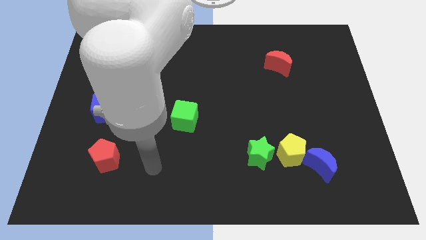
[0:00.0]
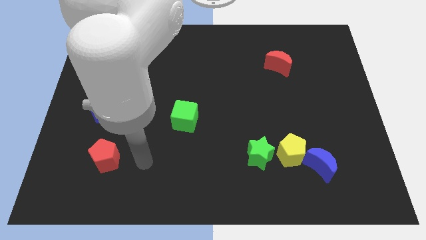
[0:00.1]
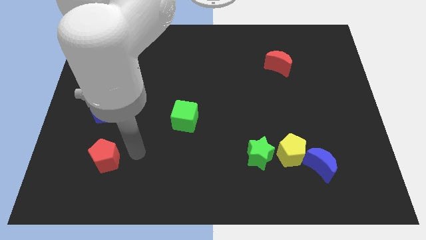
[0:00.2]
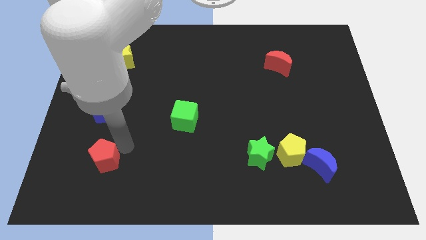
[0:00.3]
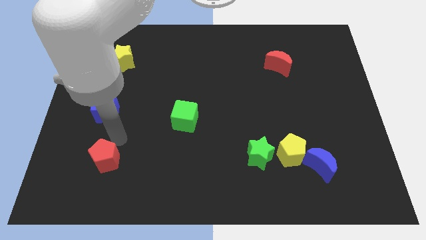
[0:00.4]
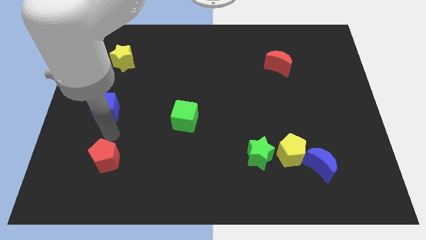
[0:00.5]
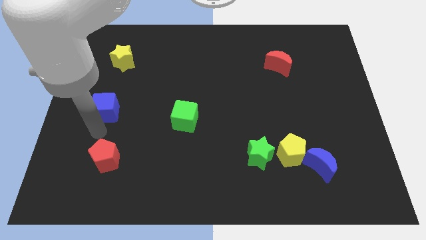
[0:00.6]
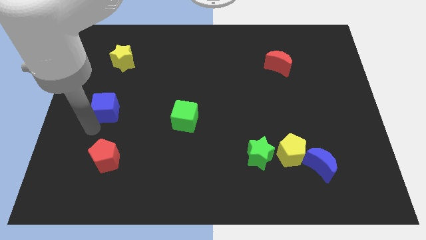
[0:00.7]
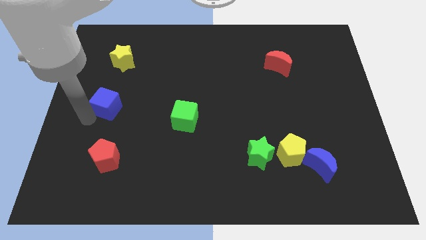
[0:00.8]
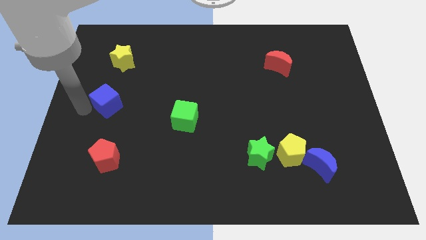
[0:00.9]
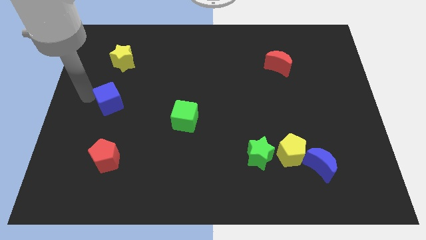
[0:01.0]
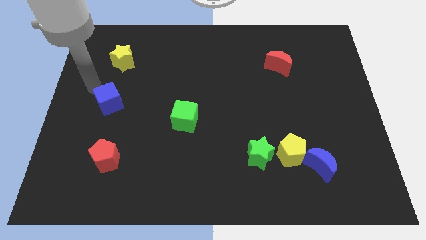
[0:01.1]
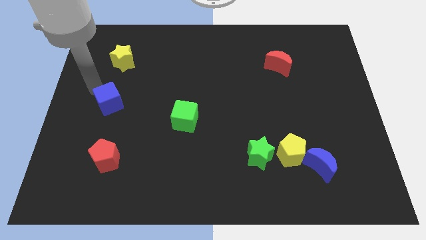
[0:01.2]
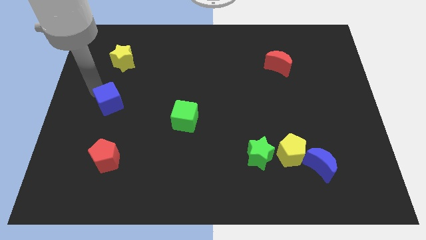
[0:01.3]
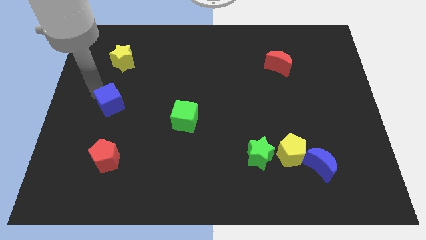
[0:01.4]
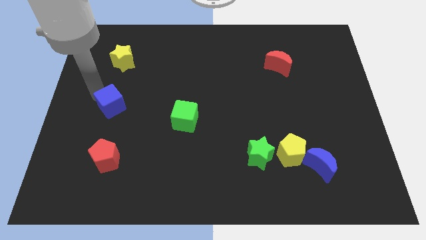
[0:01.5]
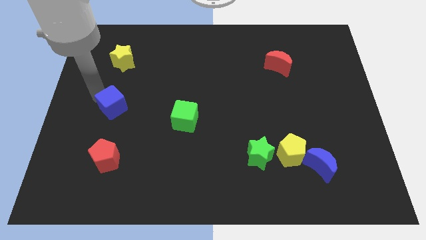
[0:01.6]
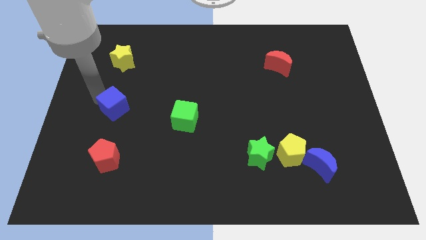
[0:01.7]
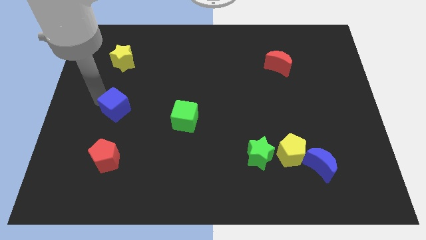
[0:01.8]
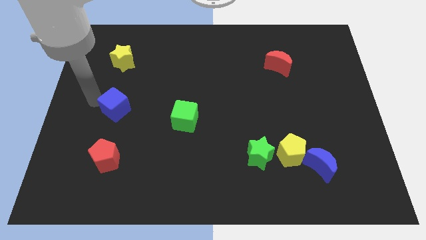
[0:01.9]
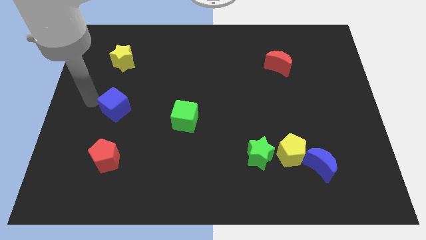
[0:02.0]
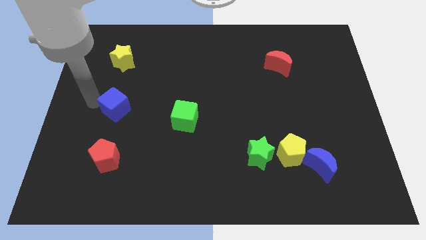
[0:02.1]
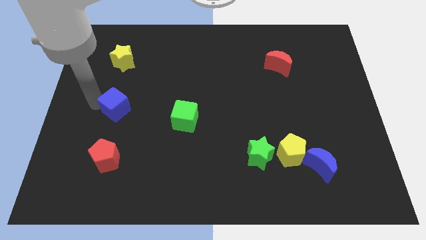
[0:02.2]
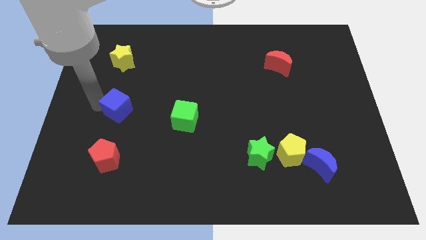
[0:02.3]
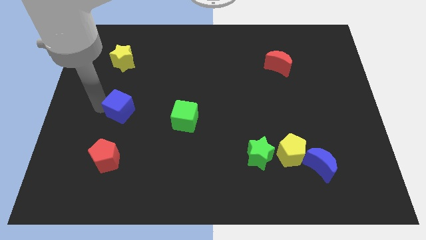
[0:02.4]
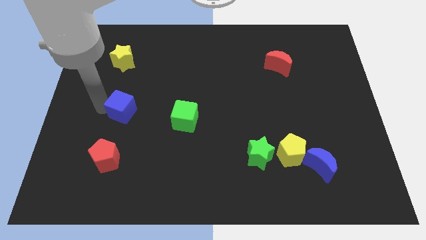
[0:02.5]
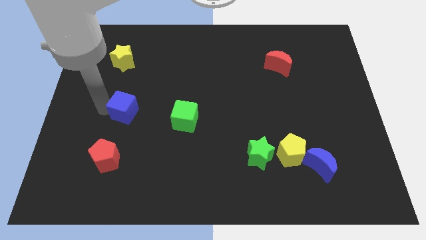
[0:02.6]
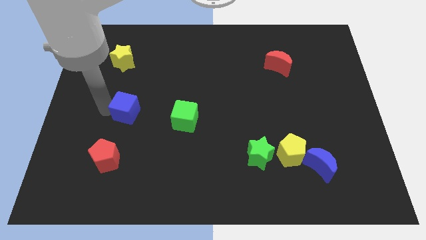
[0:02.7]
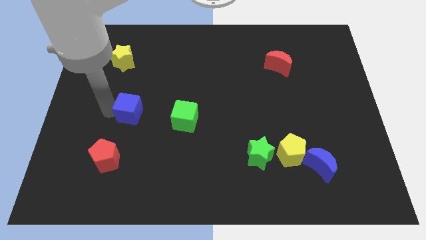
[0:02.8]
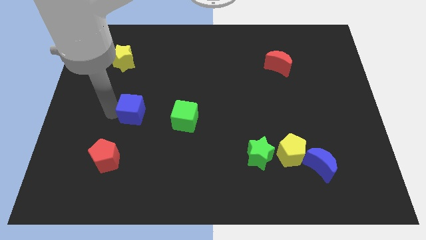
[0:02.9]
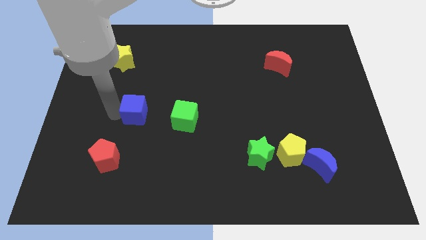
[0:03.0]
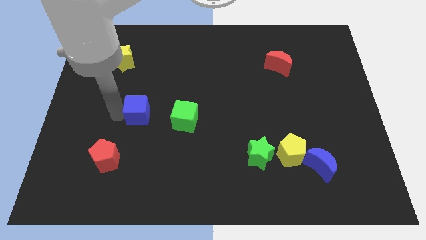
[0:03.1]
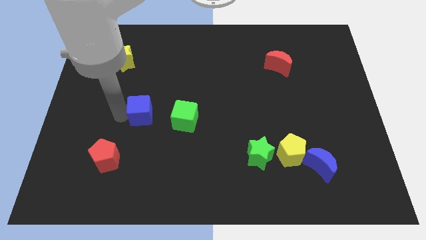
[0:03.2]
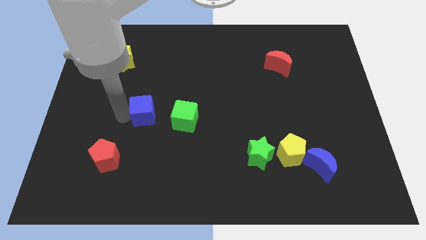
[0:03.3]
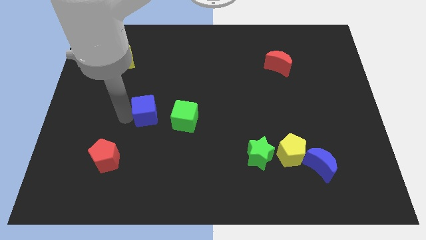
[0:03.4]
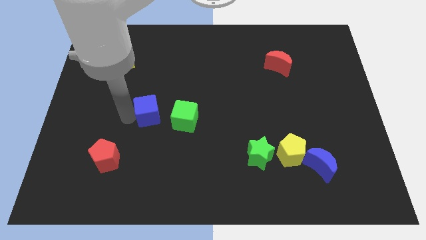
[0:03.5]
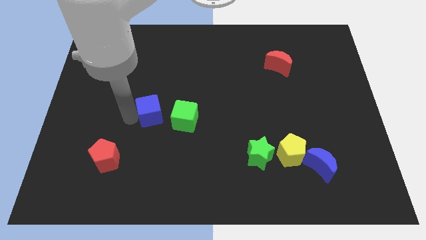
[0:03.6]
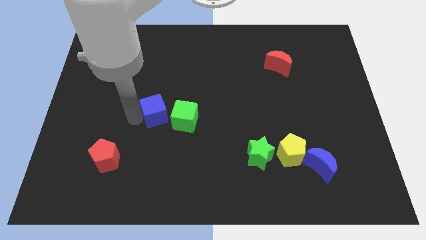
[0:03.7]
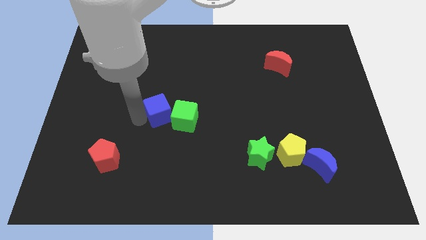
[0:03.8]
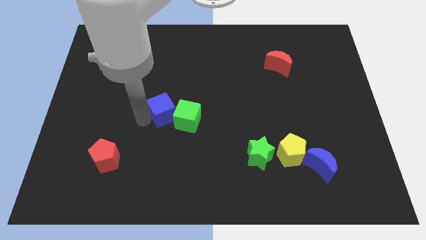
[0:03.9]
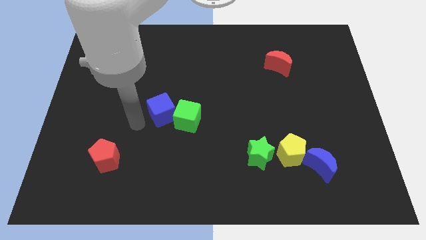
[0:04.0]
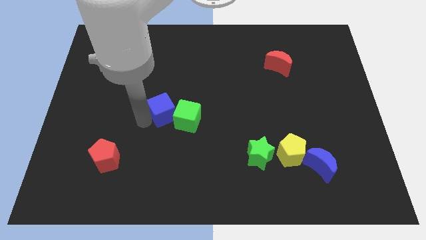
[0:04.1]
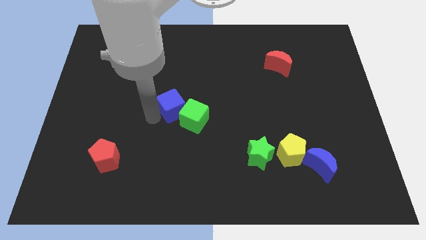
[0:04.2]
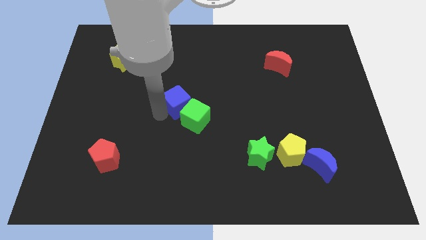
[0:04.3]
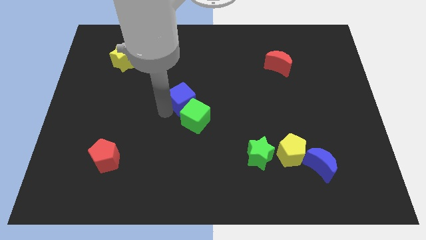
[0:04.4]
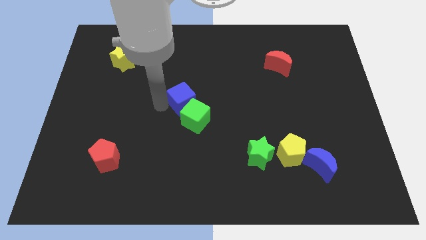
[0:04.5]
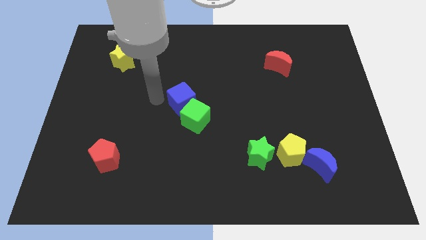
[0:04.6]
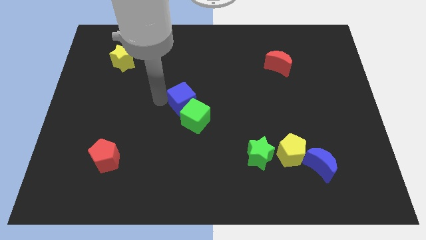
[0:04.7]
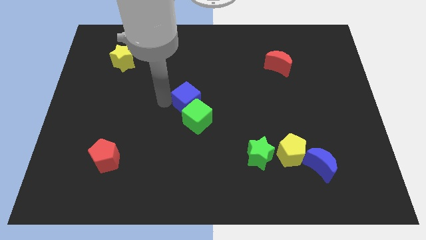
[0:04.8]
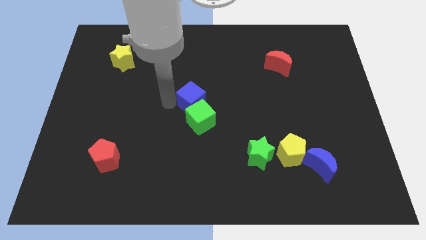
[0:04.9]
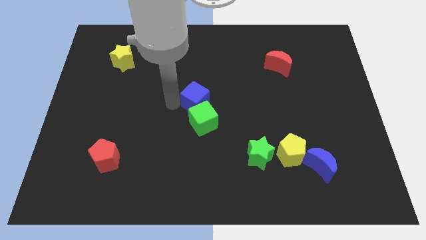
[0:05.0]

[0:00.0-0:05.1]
push the blue cube to the right

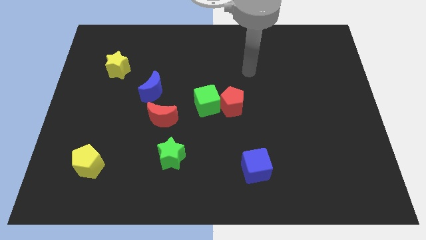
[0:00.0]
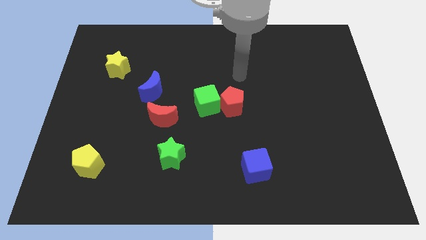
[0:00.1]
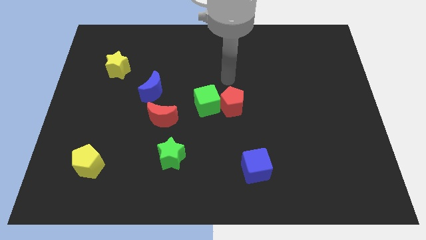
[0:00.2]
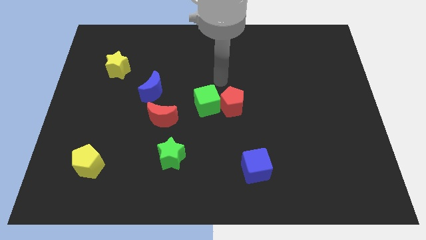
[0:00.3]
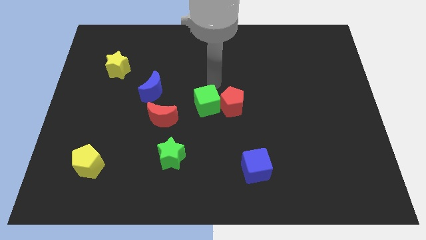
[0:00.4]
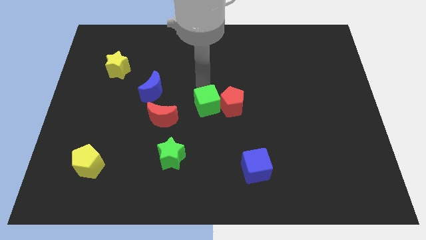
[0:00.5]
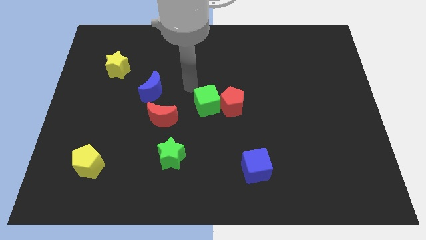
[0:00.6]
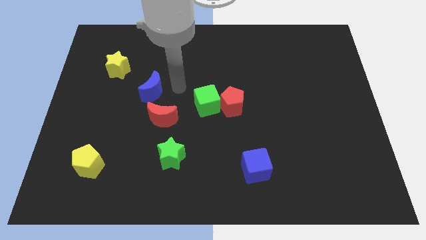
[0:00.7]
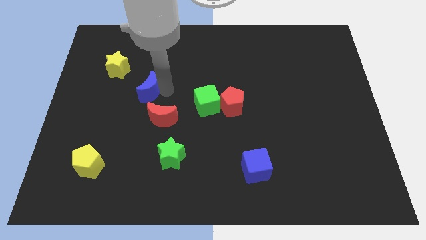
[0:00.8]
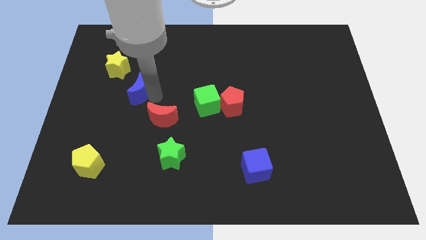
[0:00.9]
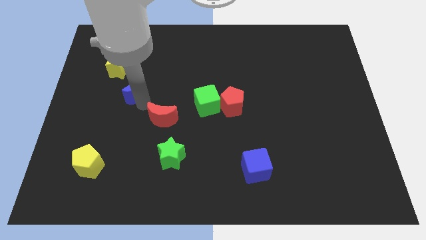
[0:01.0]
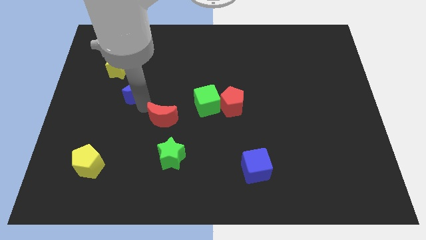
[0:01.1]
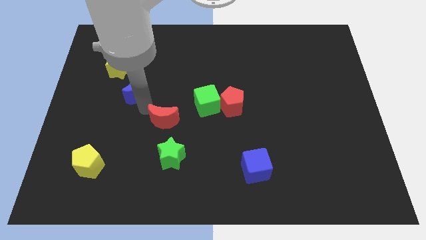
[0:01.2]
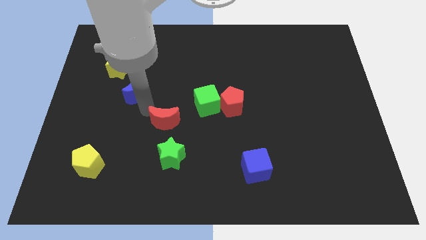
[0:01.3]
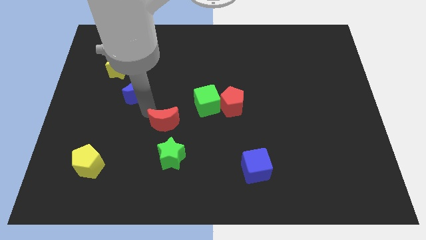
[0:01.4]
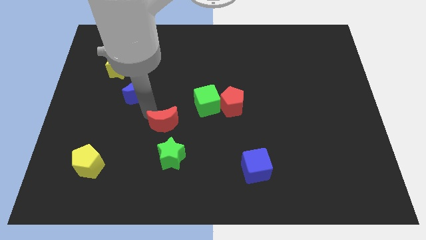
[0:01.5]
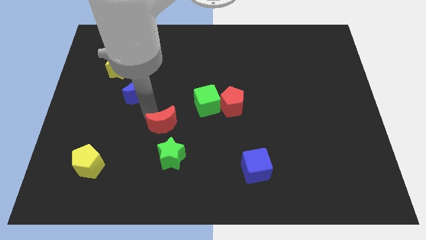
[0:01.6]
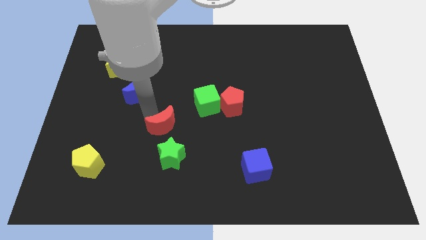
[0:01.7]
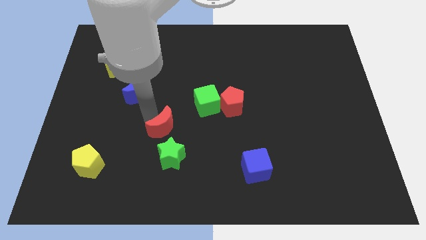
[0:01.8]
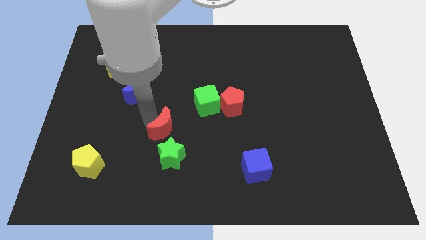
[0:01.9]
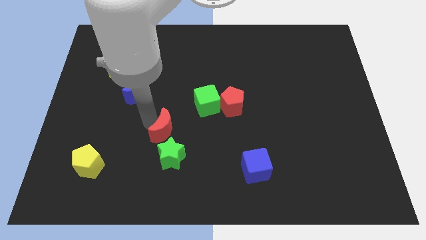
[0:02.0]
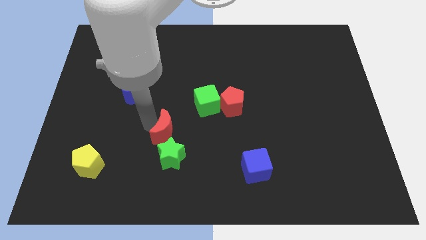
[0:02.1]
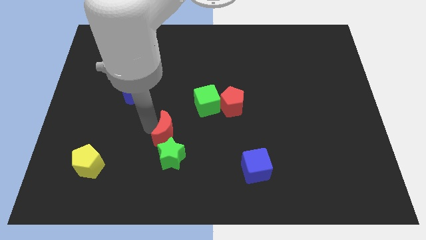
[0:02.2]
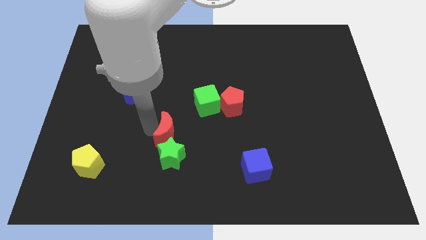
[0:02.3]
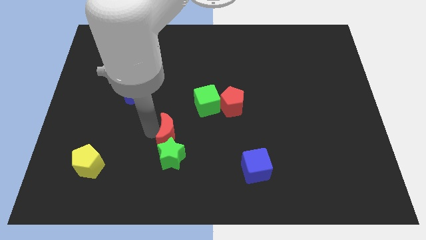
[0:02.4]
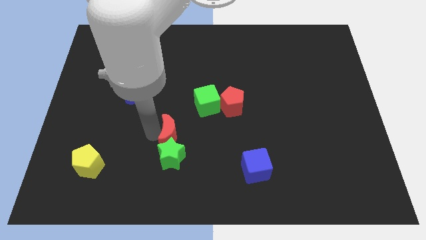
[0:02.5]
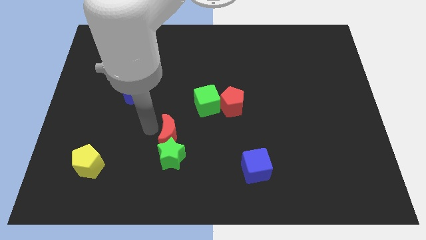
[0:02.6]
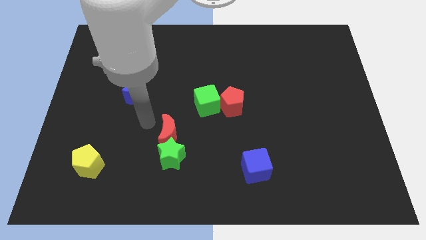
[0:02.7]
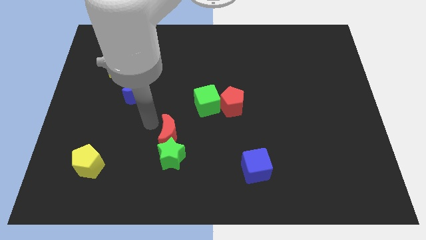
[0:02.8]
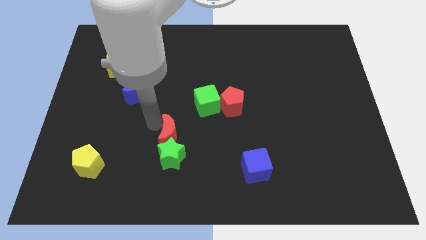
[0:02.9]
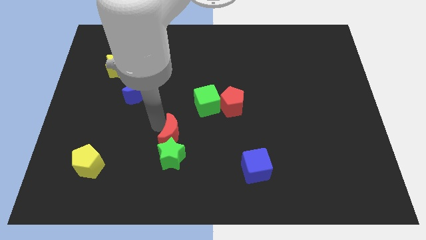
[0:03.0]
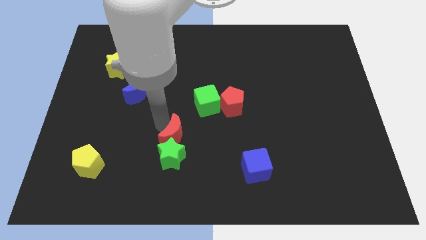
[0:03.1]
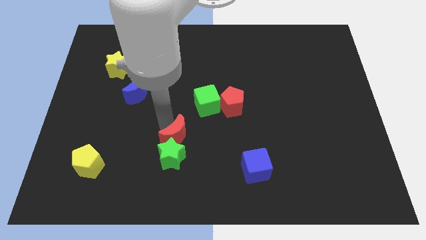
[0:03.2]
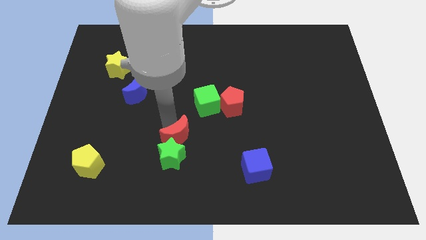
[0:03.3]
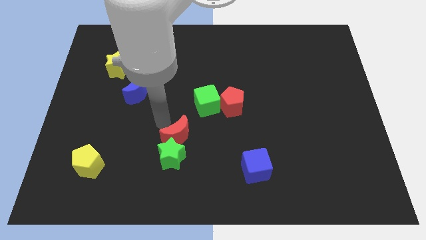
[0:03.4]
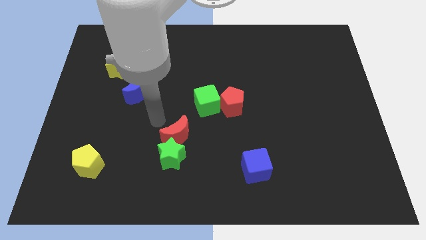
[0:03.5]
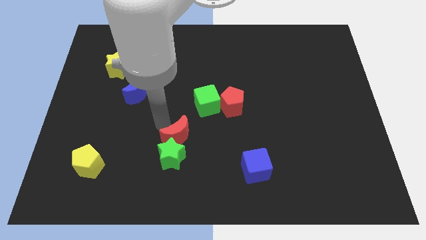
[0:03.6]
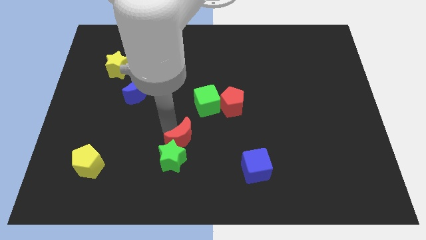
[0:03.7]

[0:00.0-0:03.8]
push the red moon a little bit diagonally down and right
